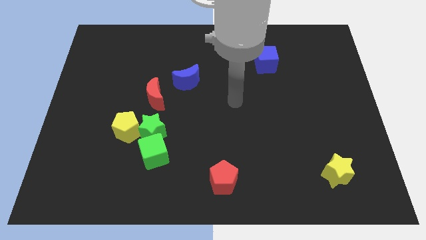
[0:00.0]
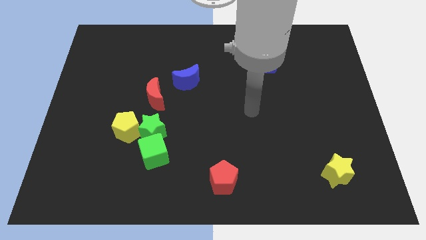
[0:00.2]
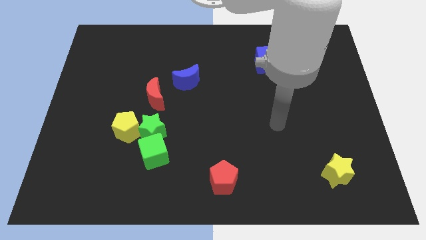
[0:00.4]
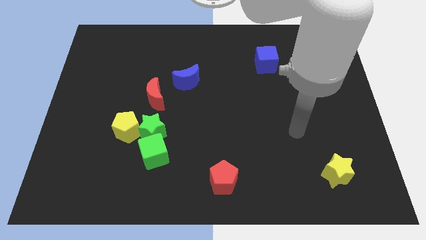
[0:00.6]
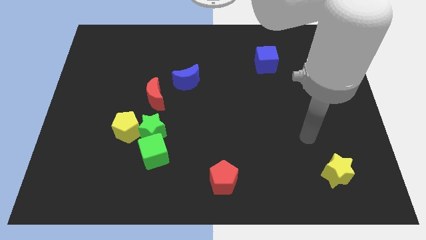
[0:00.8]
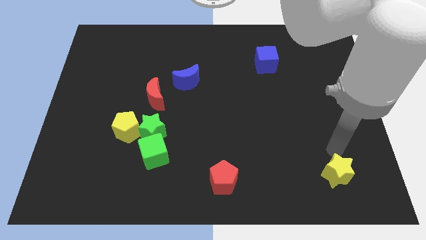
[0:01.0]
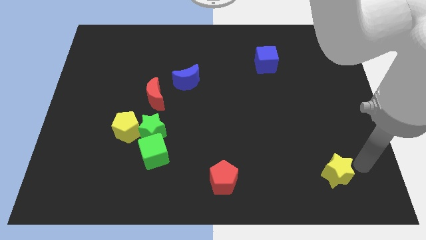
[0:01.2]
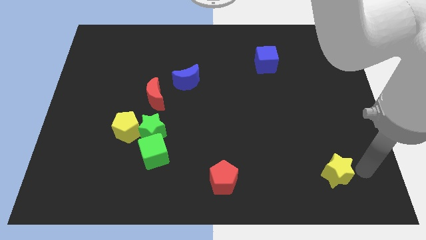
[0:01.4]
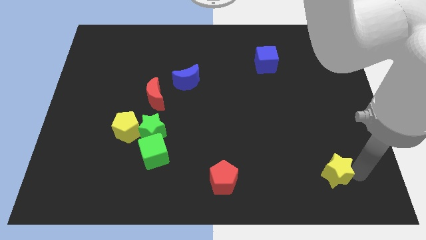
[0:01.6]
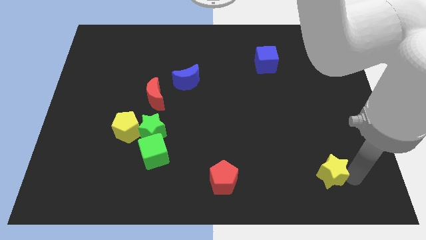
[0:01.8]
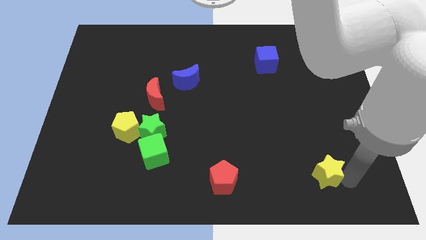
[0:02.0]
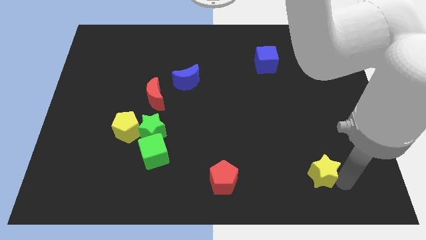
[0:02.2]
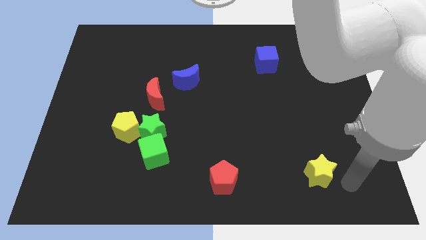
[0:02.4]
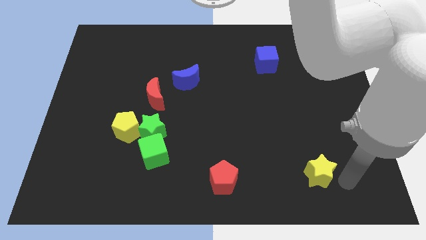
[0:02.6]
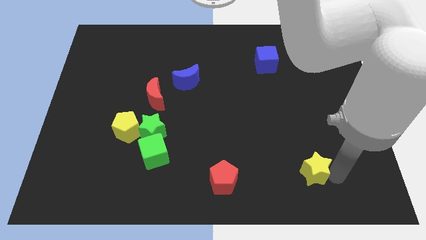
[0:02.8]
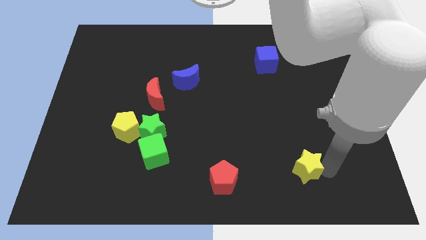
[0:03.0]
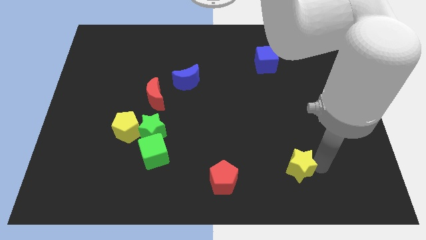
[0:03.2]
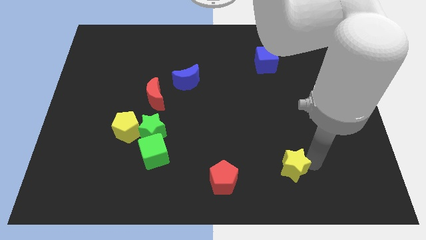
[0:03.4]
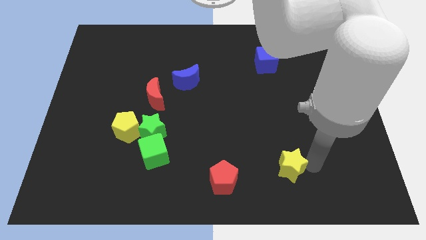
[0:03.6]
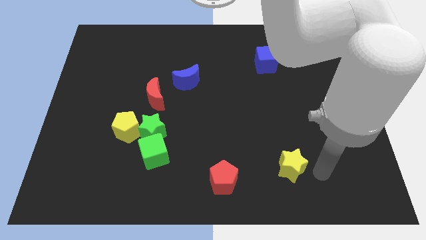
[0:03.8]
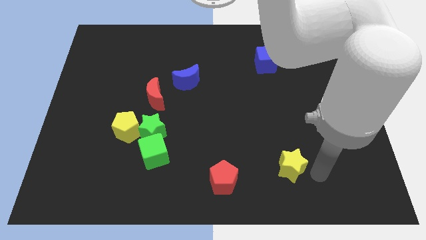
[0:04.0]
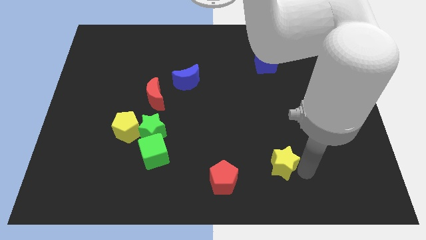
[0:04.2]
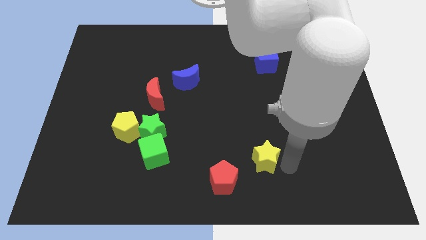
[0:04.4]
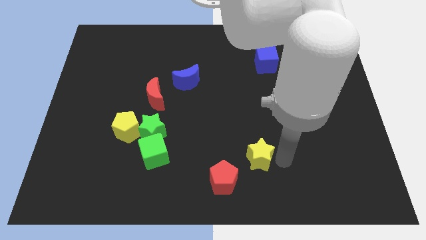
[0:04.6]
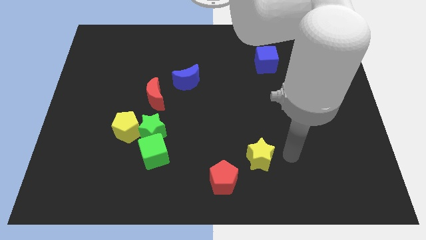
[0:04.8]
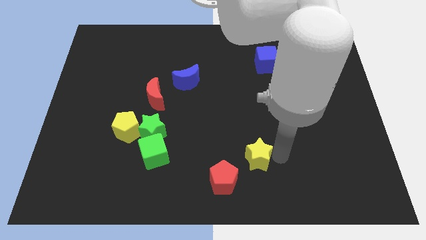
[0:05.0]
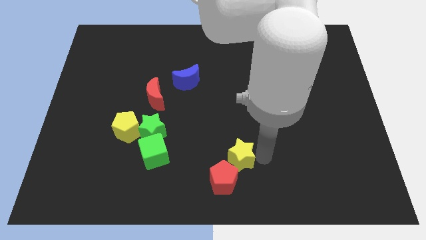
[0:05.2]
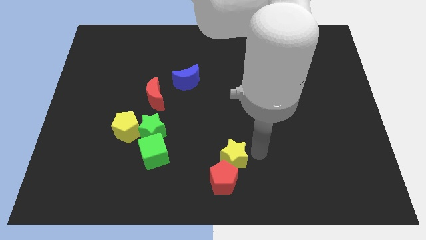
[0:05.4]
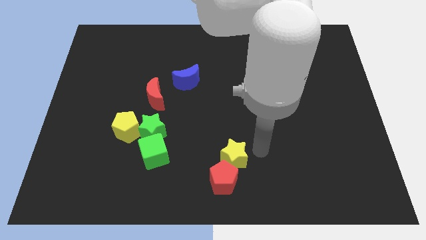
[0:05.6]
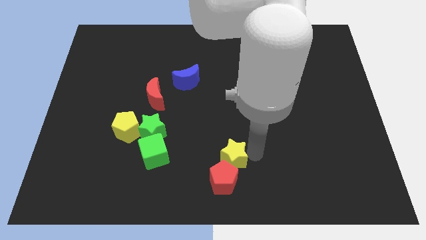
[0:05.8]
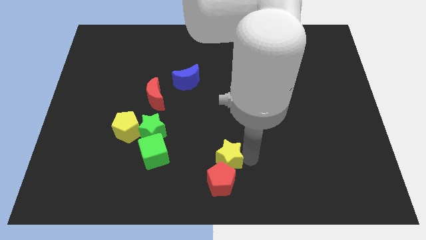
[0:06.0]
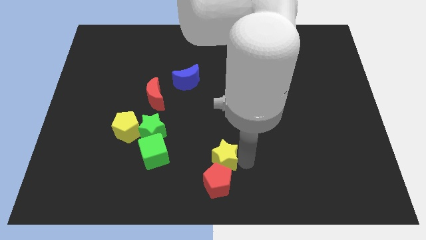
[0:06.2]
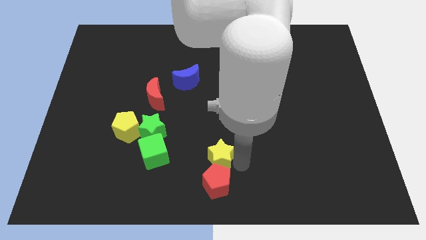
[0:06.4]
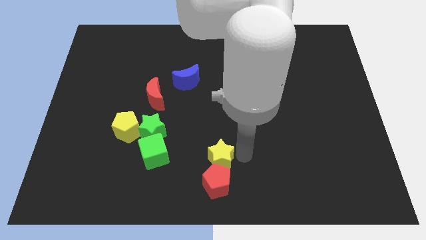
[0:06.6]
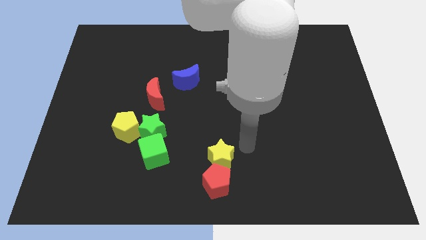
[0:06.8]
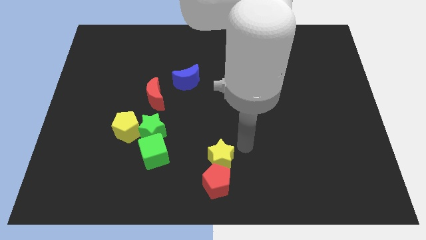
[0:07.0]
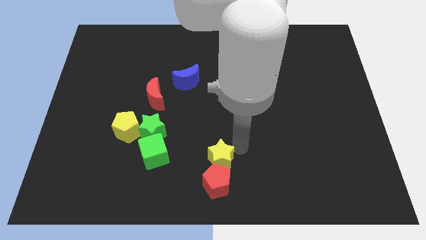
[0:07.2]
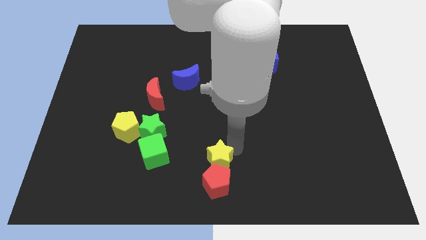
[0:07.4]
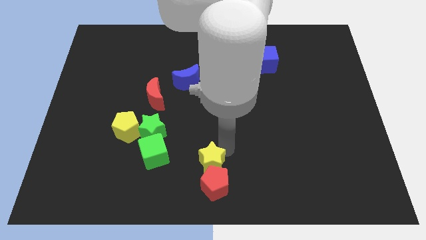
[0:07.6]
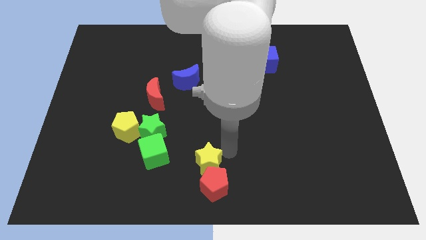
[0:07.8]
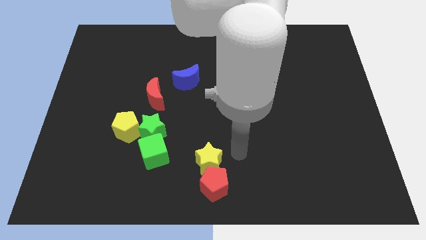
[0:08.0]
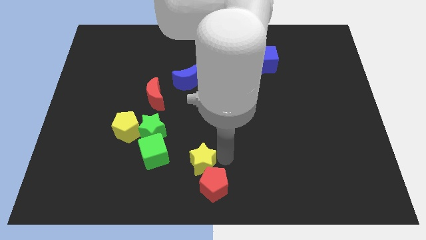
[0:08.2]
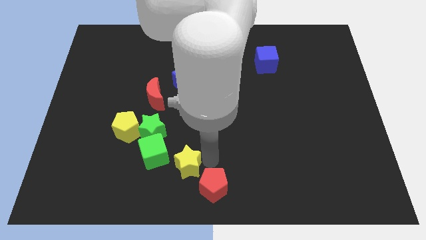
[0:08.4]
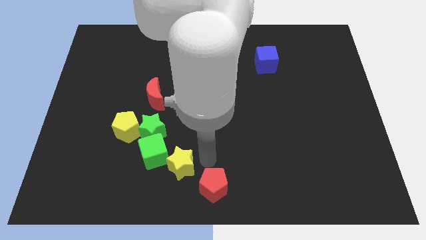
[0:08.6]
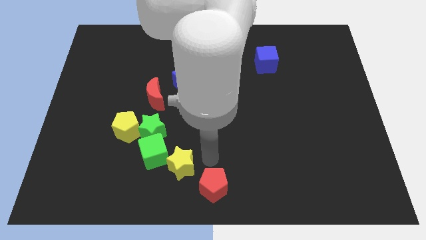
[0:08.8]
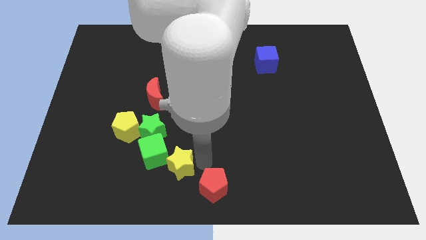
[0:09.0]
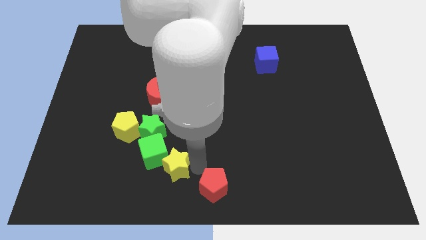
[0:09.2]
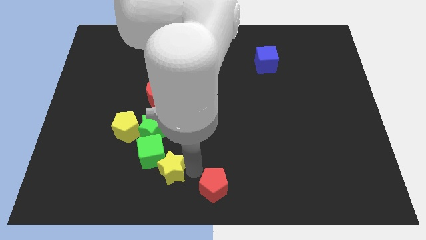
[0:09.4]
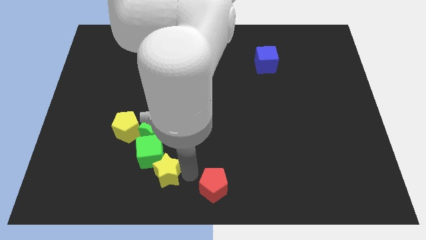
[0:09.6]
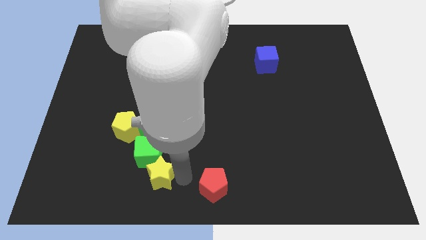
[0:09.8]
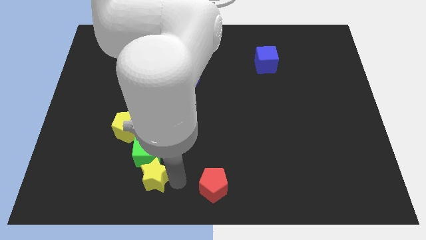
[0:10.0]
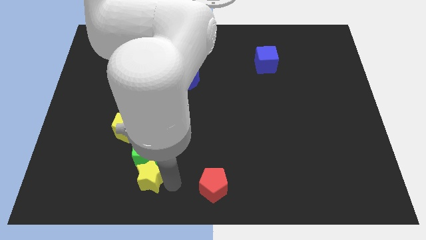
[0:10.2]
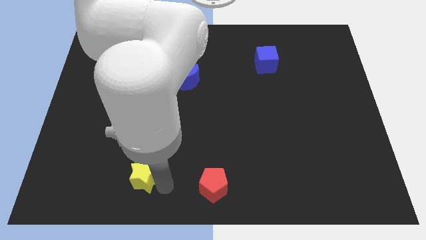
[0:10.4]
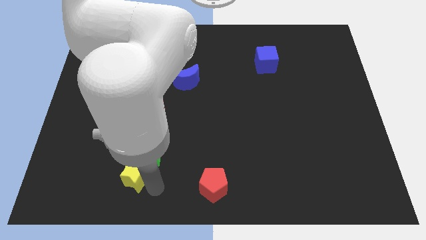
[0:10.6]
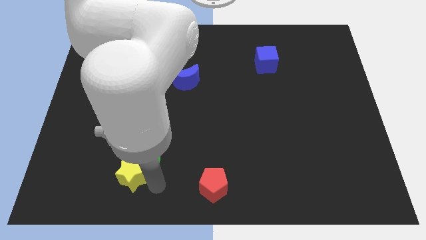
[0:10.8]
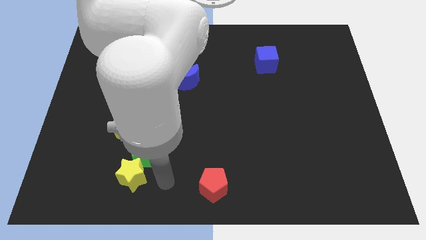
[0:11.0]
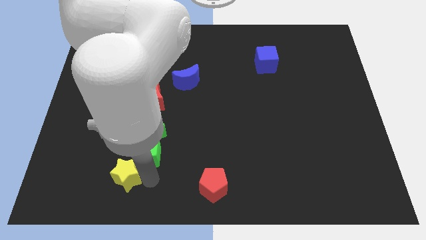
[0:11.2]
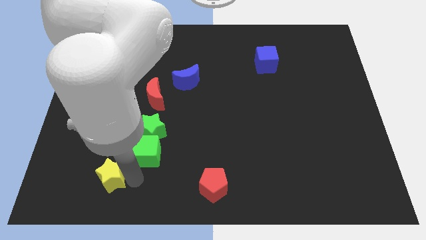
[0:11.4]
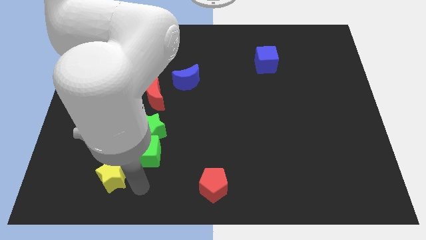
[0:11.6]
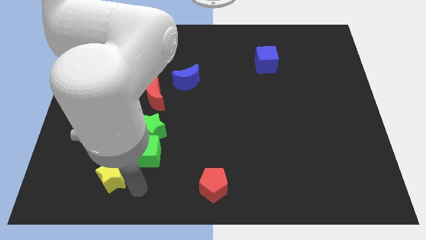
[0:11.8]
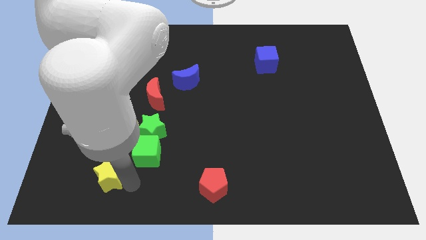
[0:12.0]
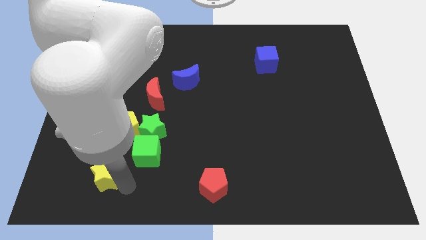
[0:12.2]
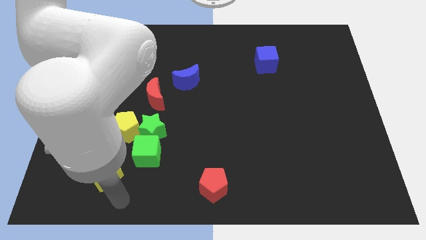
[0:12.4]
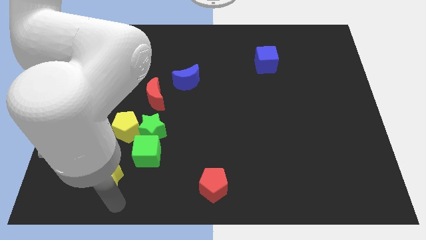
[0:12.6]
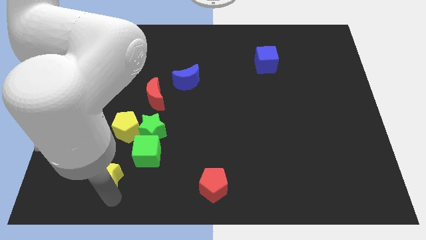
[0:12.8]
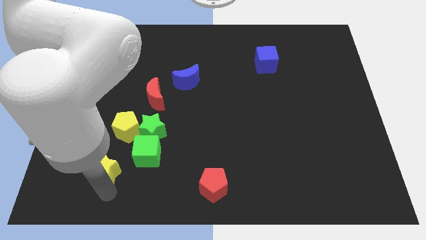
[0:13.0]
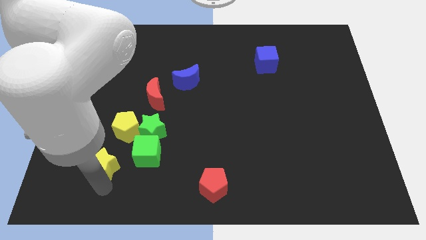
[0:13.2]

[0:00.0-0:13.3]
slide the yellow star diagonally down and to the left of the yellow pentagon
